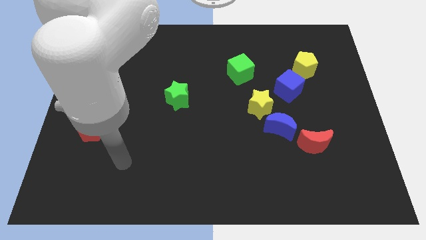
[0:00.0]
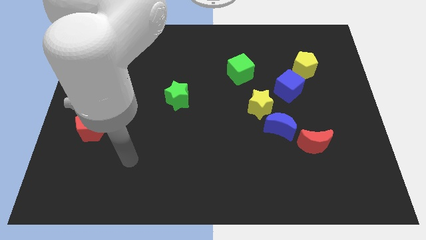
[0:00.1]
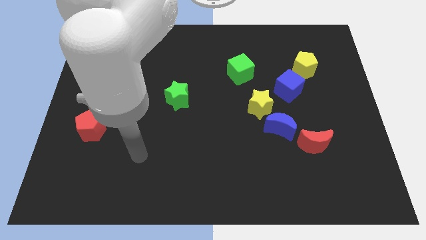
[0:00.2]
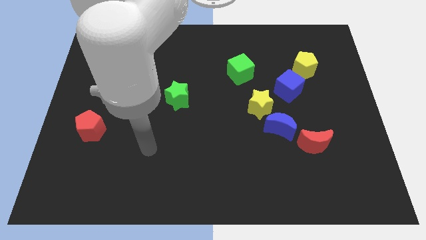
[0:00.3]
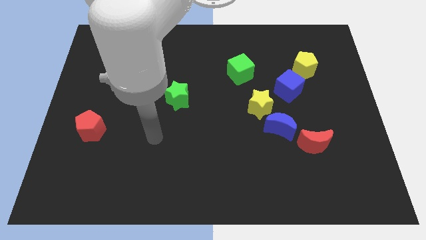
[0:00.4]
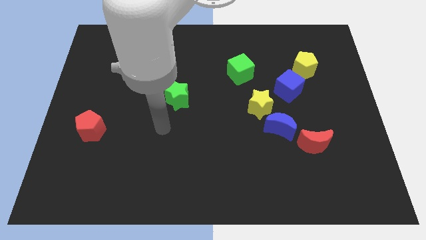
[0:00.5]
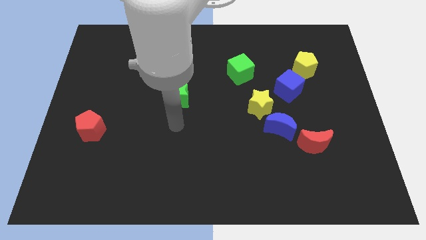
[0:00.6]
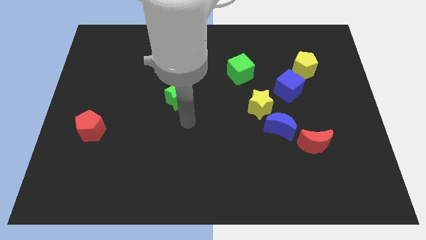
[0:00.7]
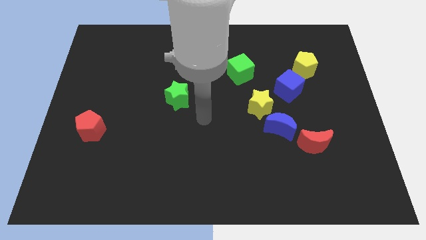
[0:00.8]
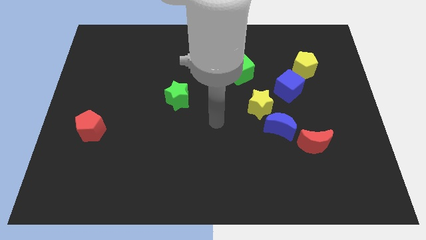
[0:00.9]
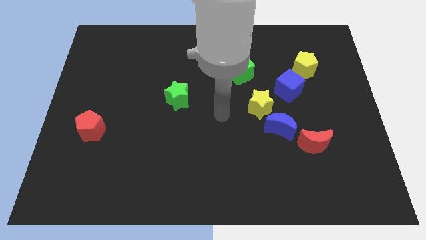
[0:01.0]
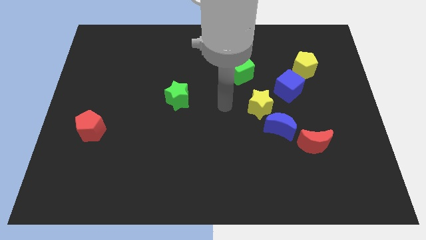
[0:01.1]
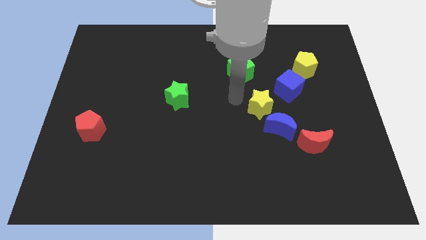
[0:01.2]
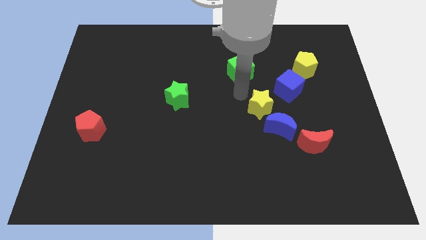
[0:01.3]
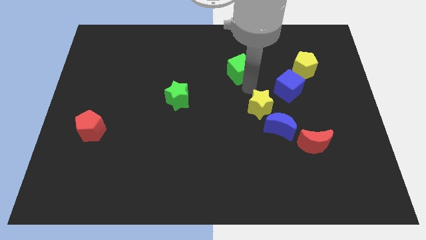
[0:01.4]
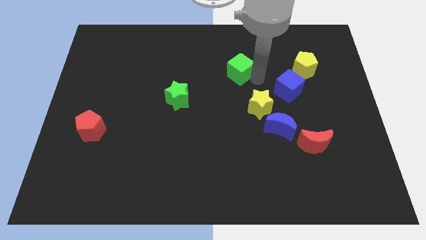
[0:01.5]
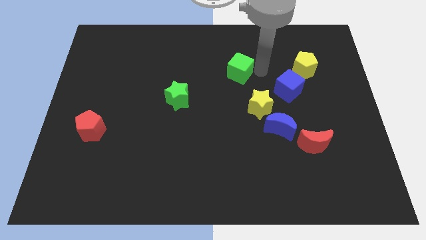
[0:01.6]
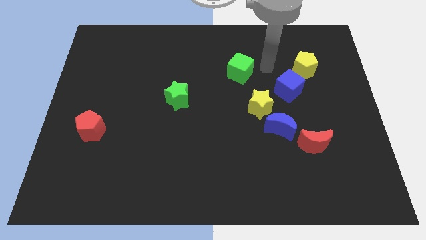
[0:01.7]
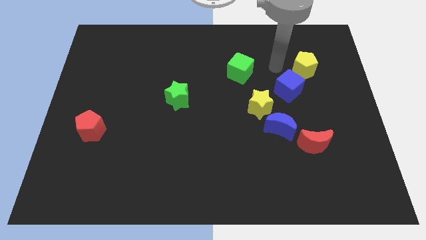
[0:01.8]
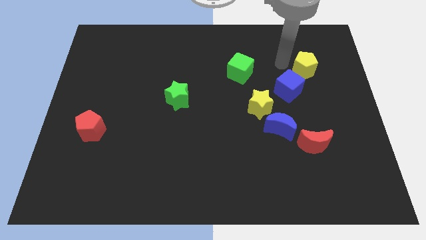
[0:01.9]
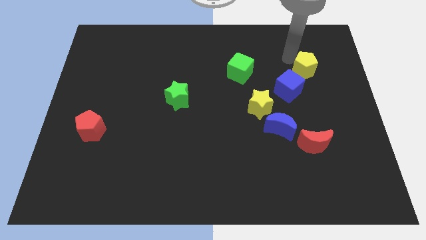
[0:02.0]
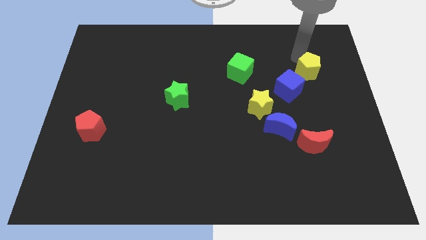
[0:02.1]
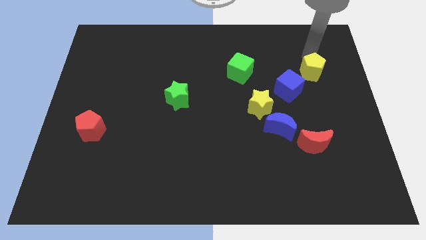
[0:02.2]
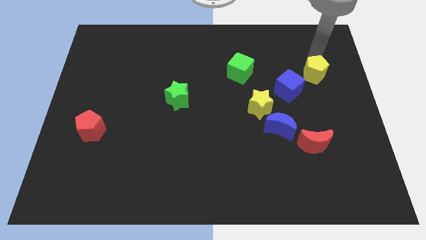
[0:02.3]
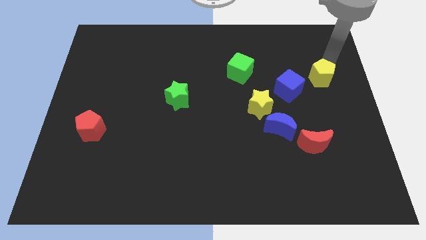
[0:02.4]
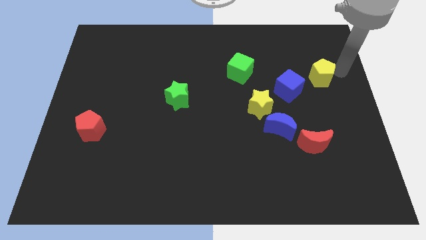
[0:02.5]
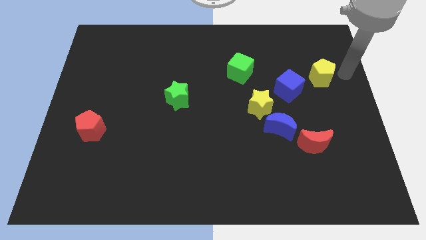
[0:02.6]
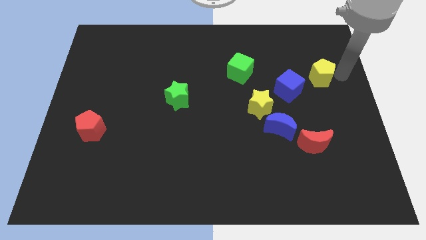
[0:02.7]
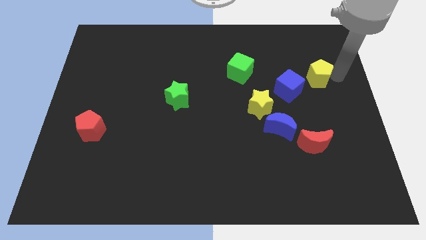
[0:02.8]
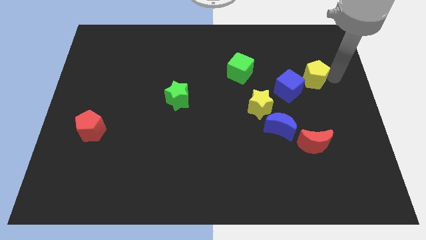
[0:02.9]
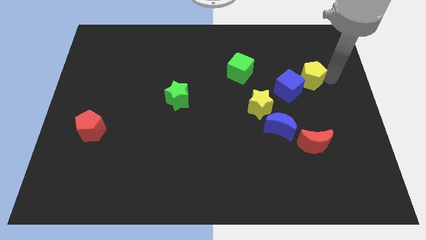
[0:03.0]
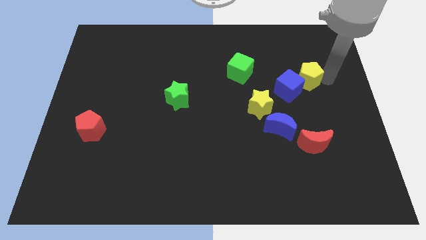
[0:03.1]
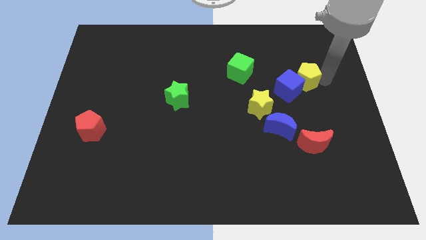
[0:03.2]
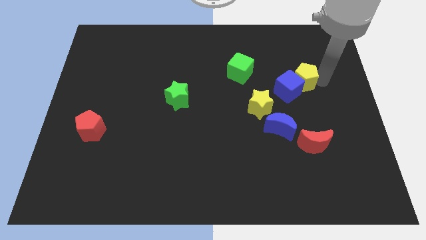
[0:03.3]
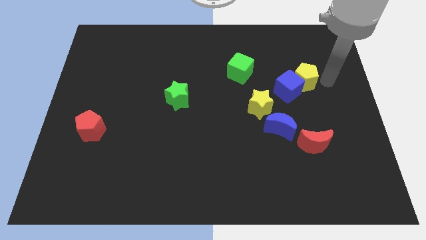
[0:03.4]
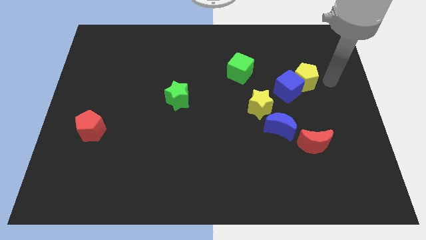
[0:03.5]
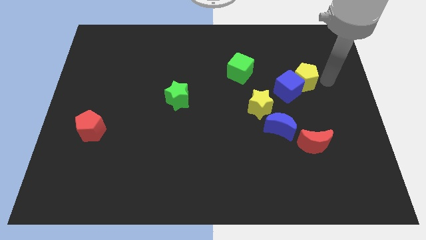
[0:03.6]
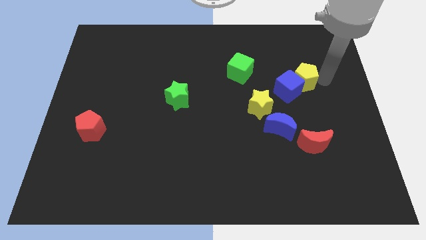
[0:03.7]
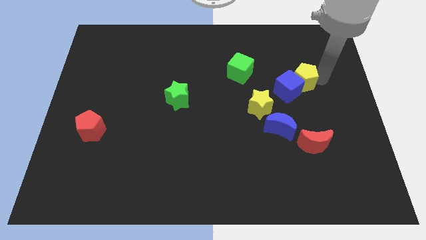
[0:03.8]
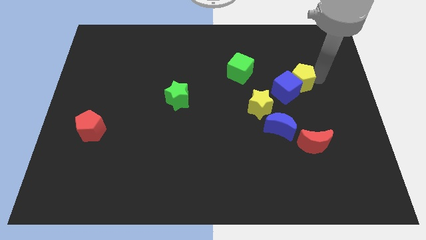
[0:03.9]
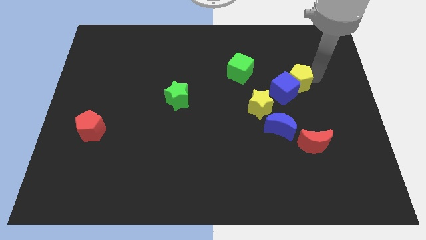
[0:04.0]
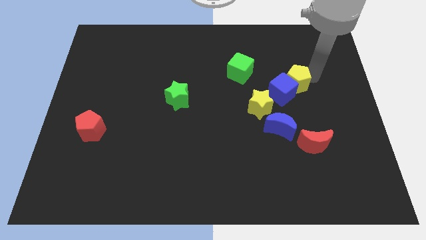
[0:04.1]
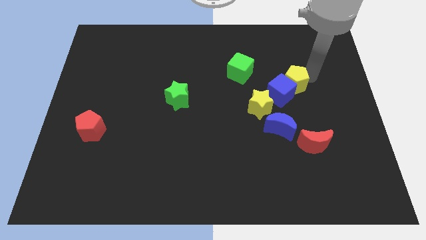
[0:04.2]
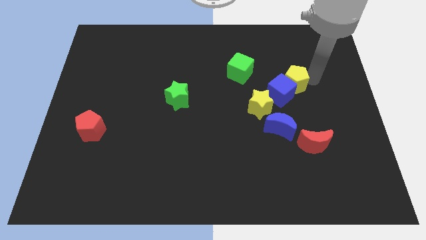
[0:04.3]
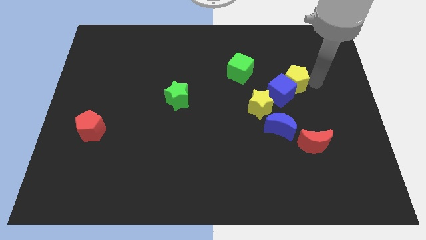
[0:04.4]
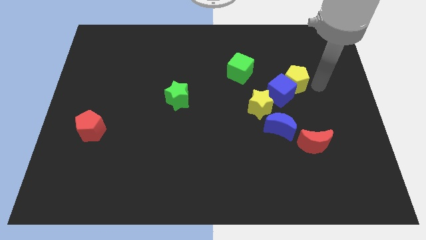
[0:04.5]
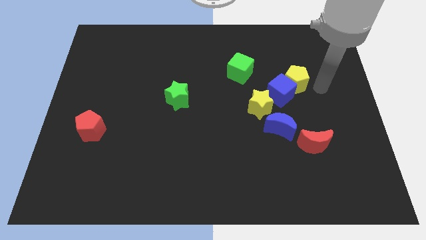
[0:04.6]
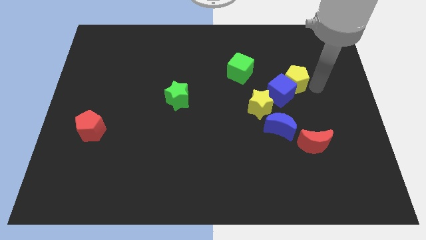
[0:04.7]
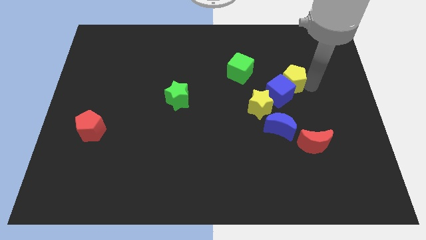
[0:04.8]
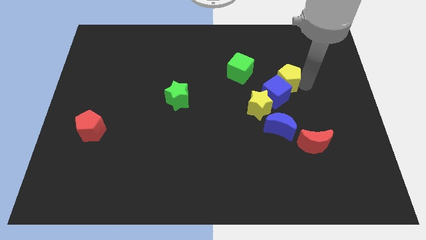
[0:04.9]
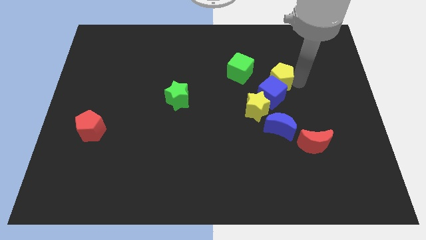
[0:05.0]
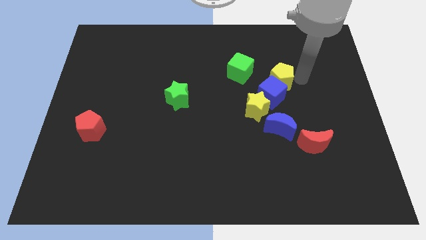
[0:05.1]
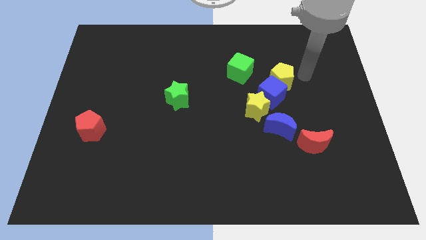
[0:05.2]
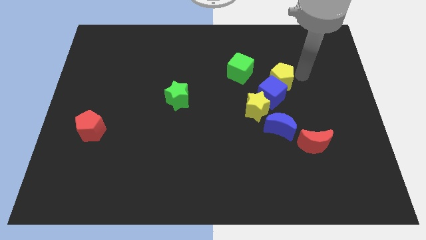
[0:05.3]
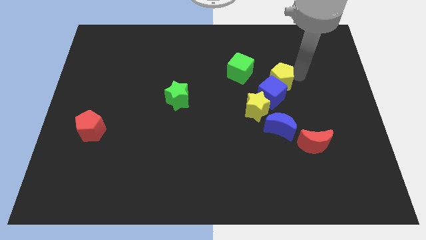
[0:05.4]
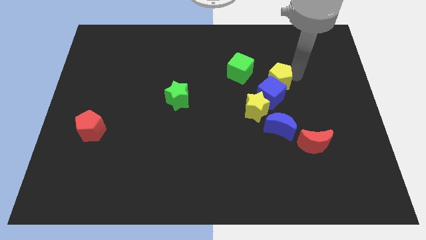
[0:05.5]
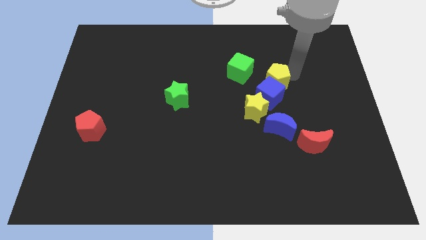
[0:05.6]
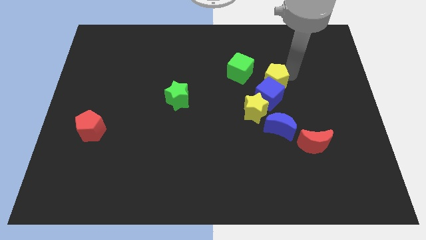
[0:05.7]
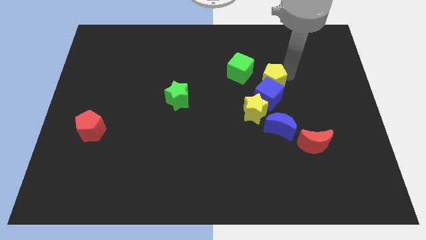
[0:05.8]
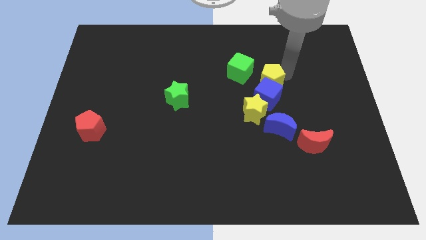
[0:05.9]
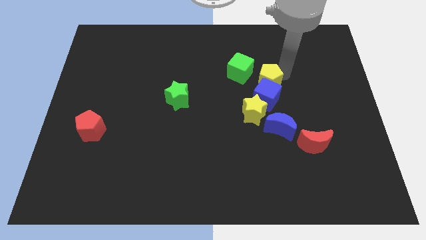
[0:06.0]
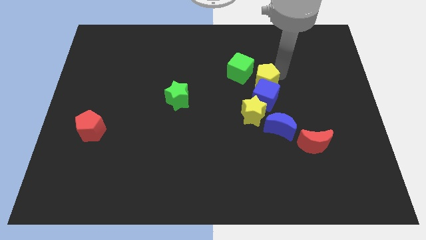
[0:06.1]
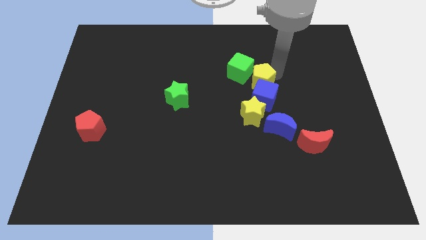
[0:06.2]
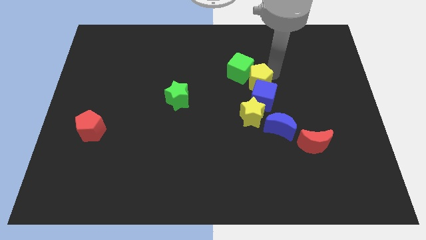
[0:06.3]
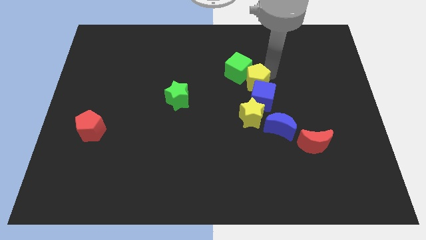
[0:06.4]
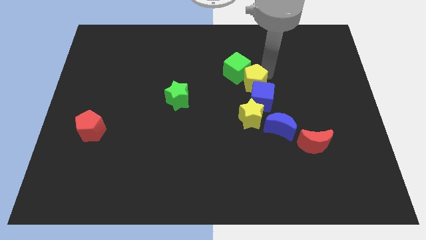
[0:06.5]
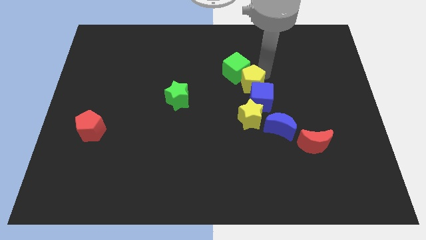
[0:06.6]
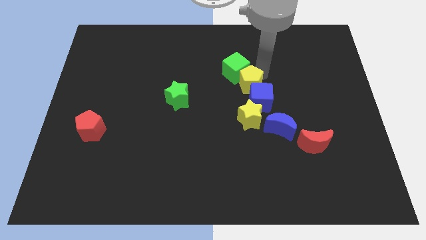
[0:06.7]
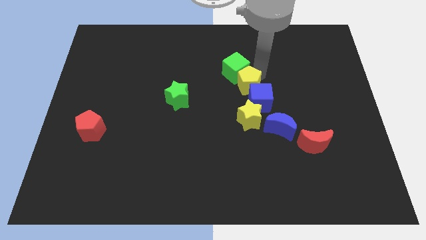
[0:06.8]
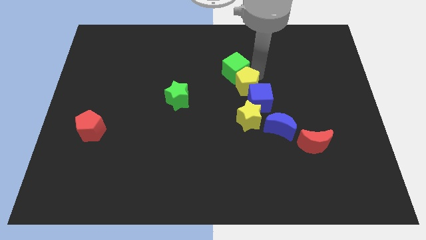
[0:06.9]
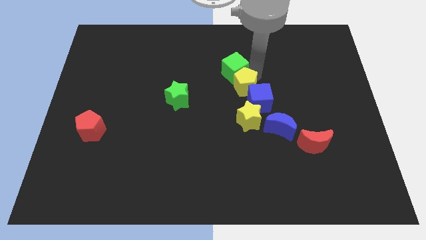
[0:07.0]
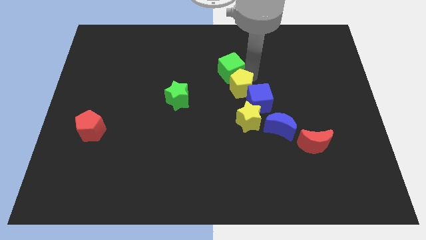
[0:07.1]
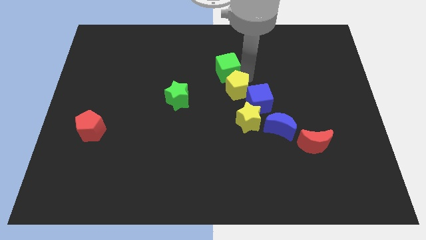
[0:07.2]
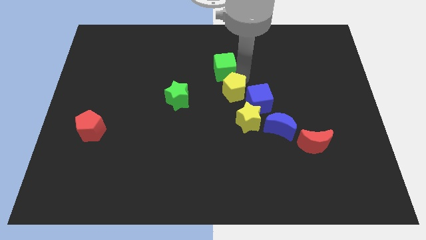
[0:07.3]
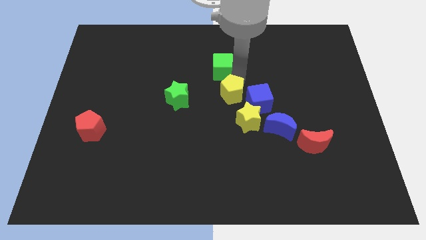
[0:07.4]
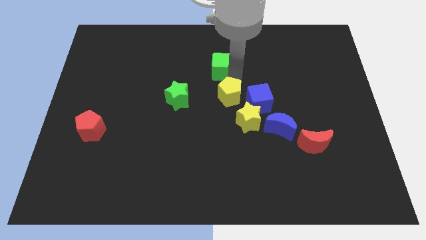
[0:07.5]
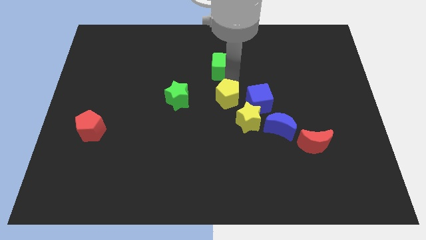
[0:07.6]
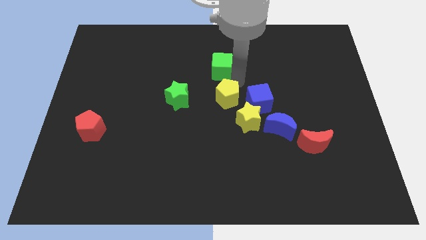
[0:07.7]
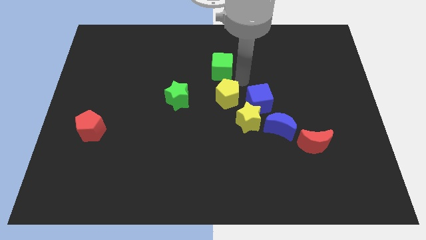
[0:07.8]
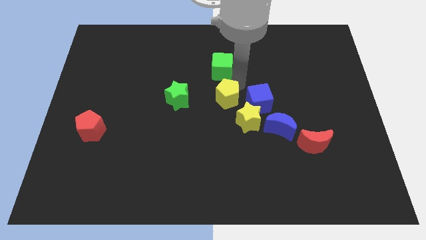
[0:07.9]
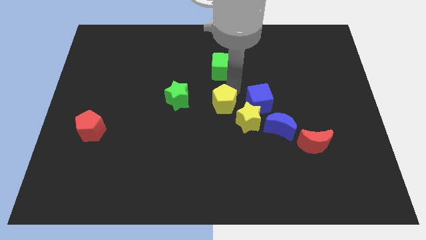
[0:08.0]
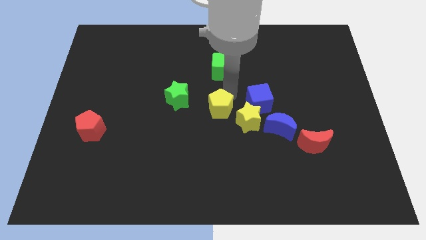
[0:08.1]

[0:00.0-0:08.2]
move the yellow pentagon just left of the yellow star
